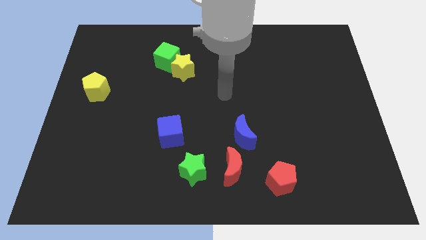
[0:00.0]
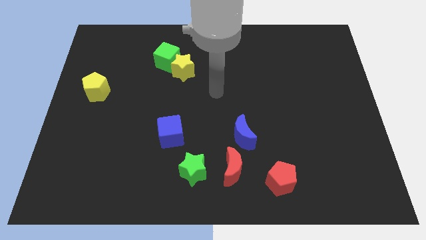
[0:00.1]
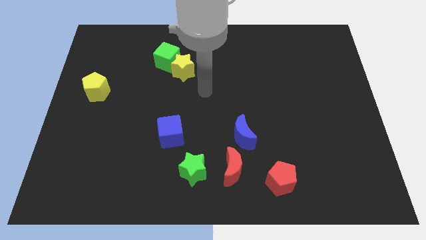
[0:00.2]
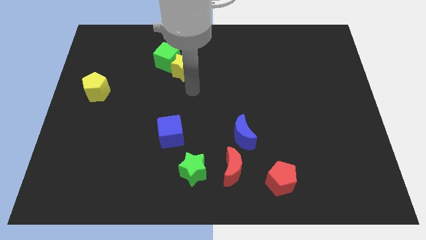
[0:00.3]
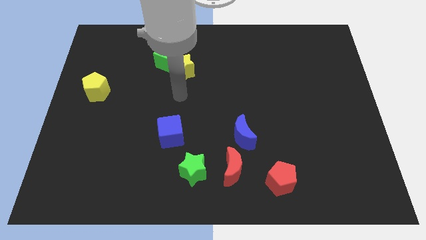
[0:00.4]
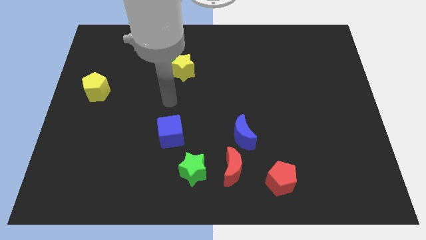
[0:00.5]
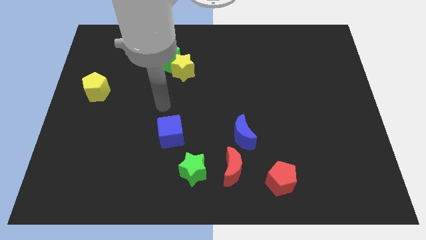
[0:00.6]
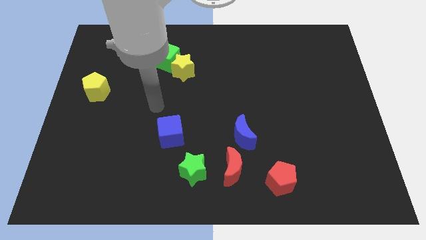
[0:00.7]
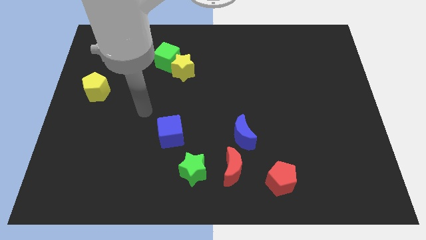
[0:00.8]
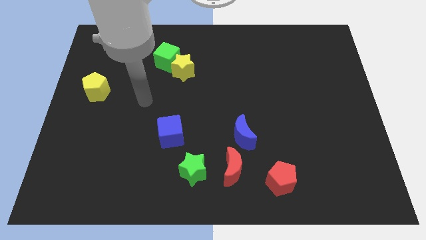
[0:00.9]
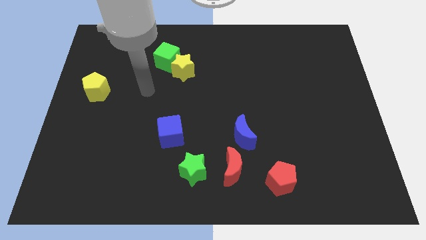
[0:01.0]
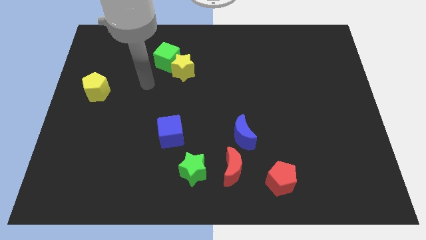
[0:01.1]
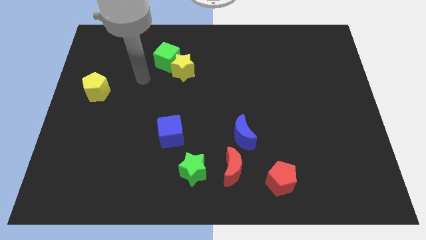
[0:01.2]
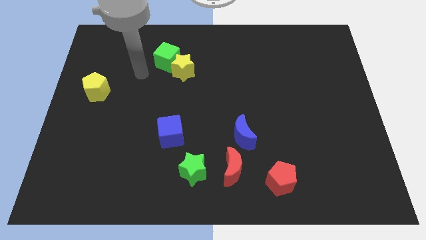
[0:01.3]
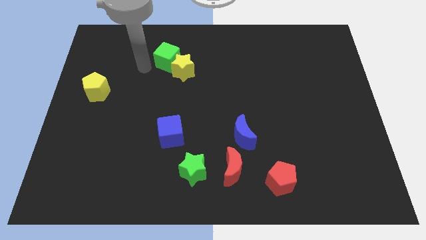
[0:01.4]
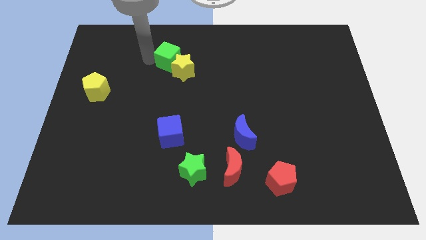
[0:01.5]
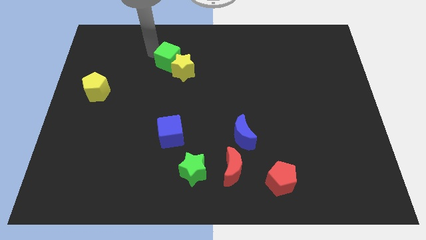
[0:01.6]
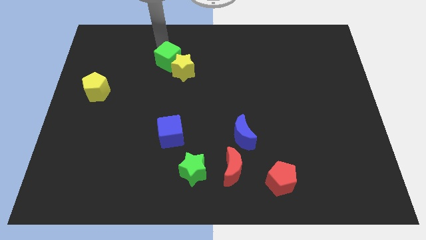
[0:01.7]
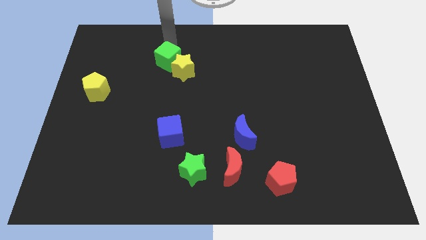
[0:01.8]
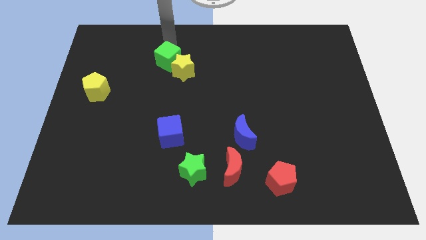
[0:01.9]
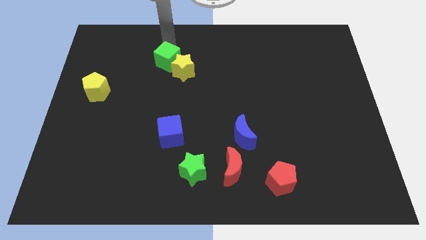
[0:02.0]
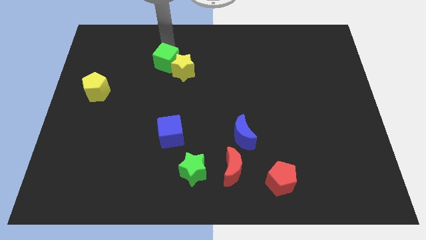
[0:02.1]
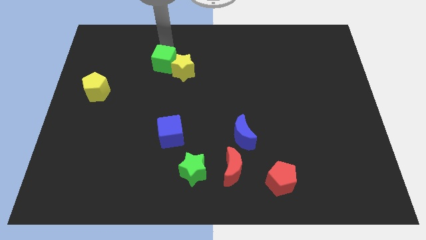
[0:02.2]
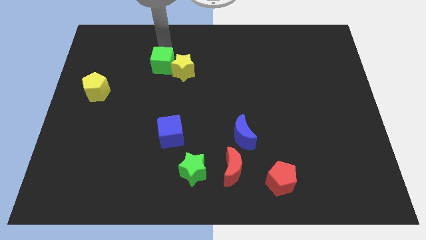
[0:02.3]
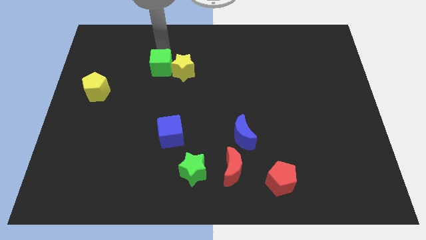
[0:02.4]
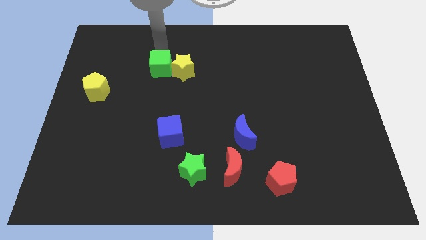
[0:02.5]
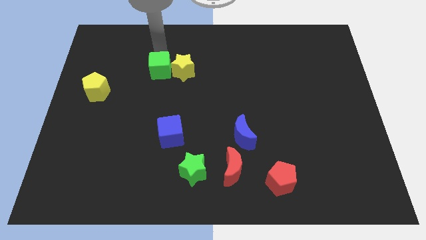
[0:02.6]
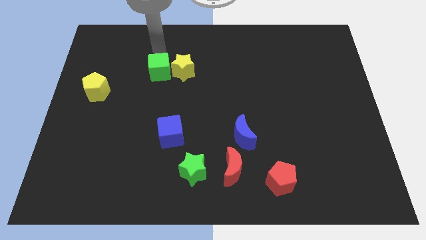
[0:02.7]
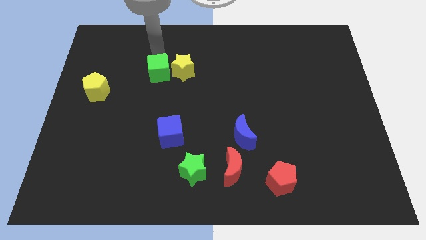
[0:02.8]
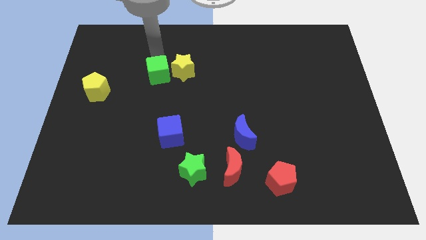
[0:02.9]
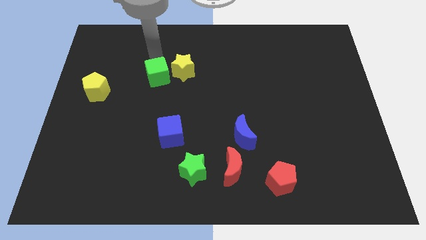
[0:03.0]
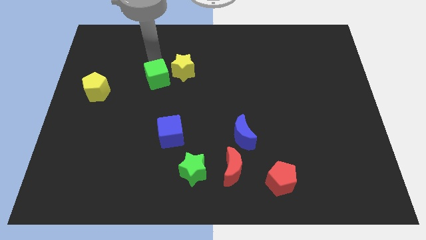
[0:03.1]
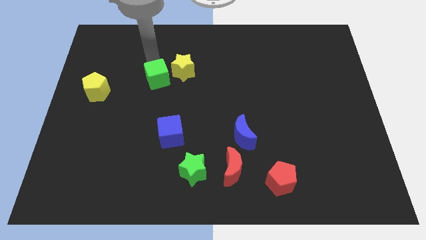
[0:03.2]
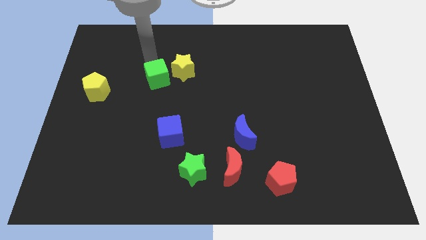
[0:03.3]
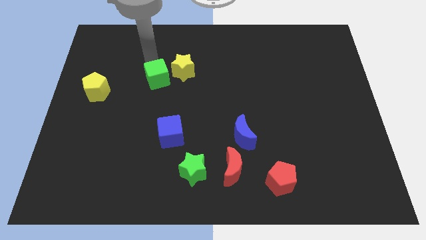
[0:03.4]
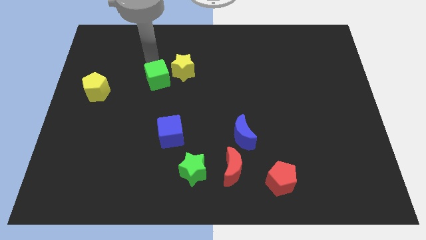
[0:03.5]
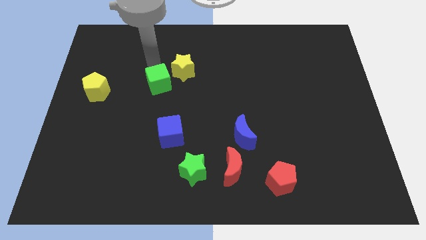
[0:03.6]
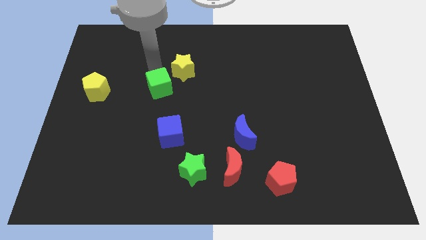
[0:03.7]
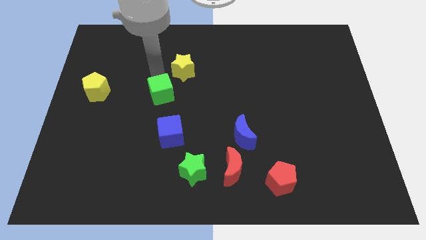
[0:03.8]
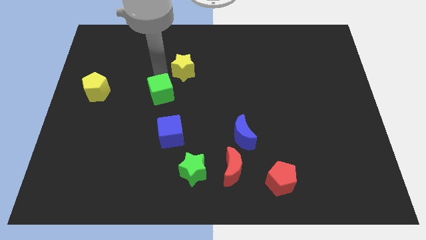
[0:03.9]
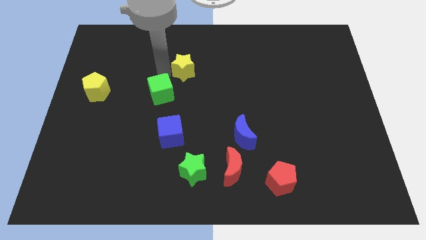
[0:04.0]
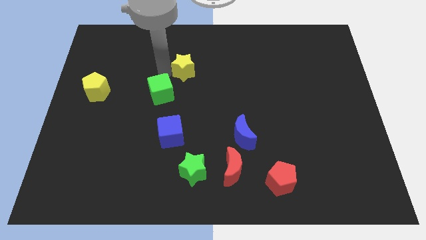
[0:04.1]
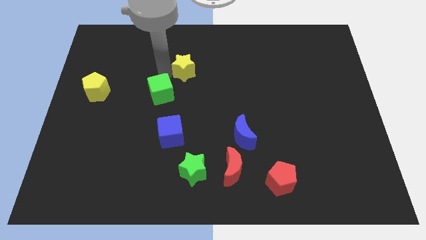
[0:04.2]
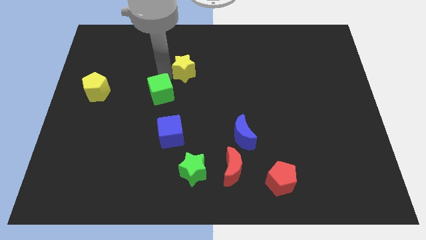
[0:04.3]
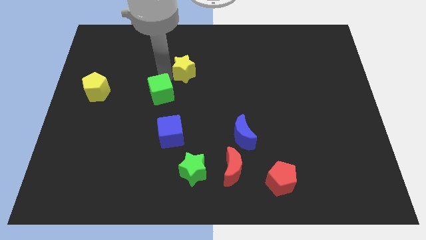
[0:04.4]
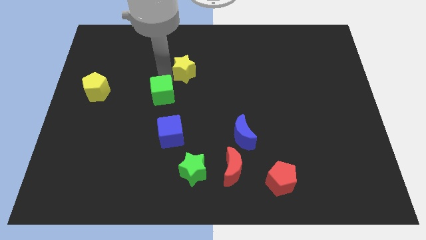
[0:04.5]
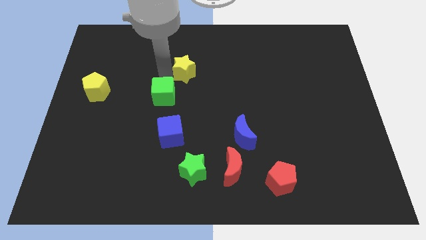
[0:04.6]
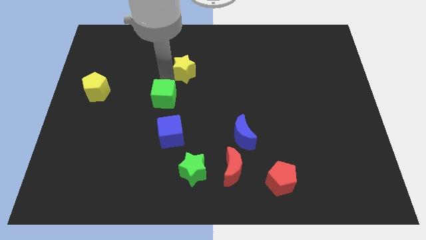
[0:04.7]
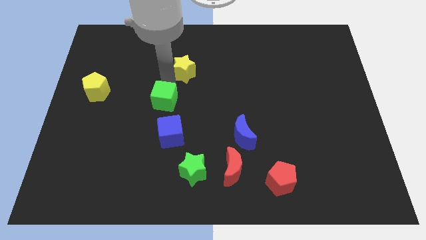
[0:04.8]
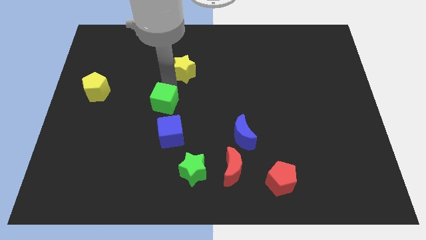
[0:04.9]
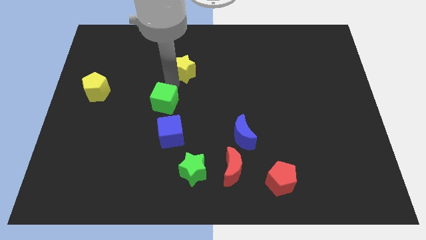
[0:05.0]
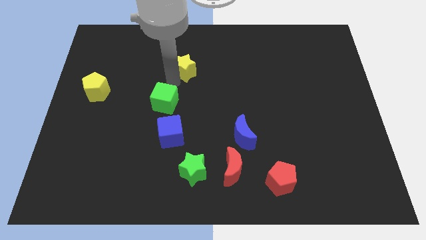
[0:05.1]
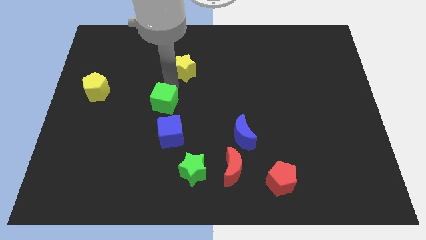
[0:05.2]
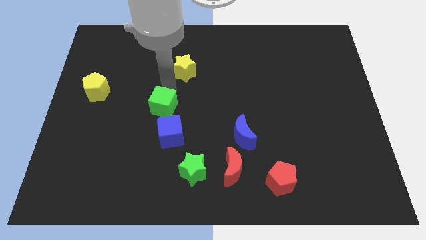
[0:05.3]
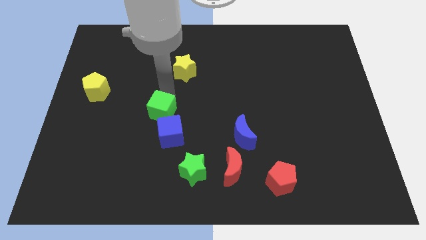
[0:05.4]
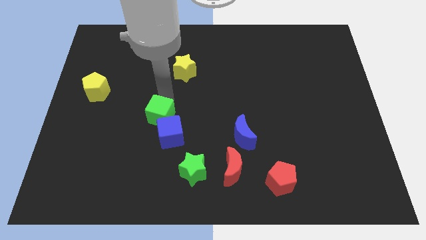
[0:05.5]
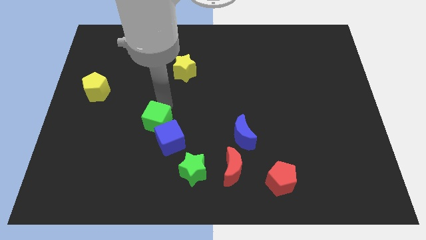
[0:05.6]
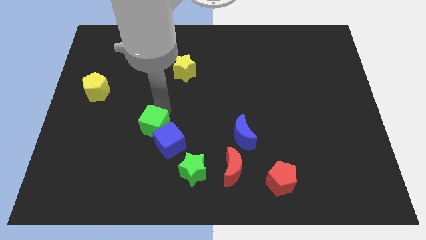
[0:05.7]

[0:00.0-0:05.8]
push the green cube downwards

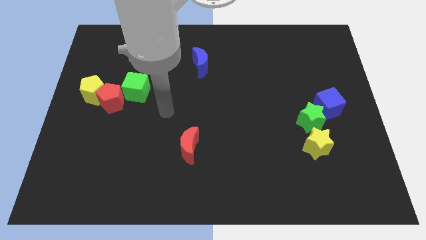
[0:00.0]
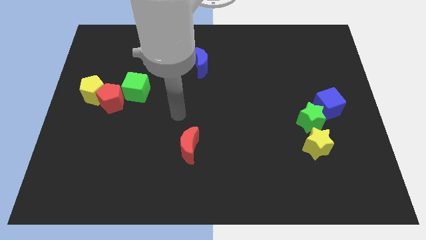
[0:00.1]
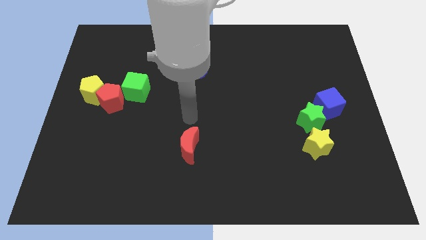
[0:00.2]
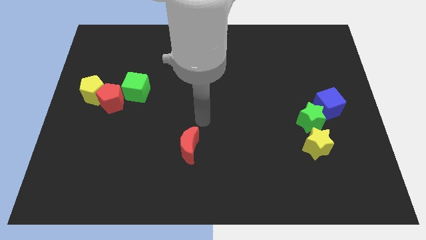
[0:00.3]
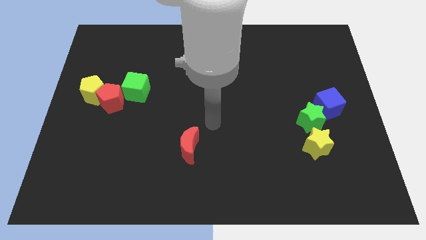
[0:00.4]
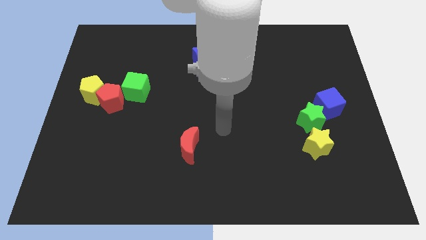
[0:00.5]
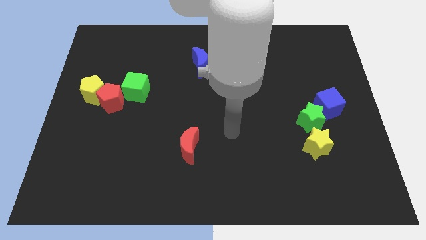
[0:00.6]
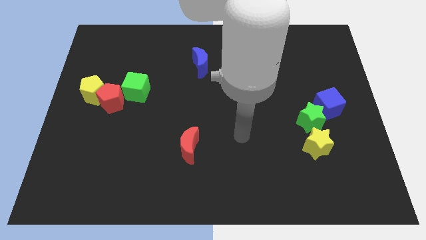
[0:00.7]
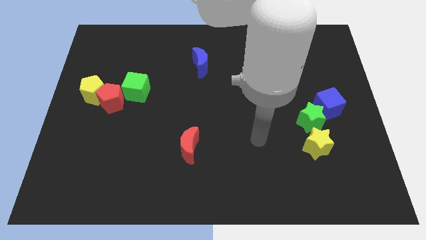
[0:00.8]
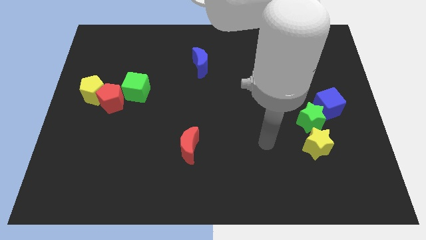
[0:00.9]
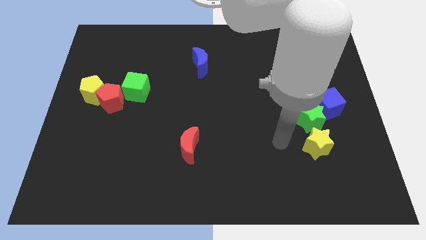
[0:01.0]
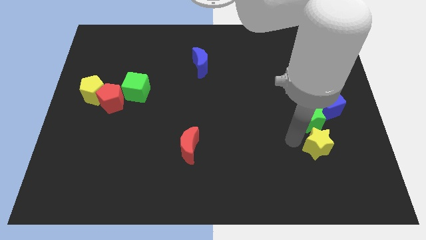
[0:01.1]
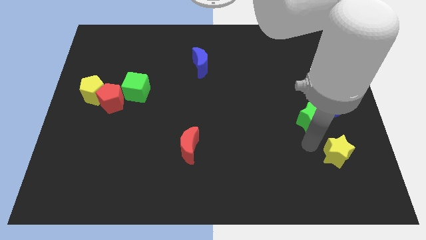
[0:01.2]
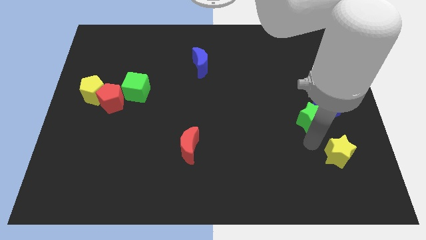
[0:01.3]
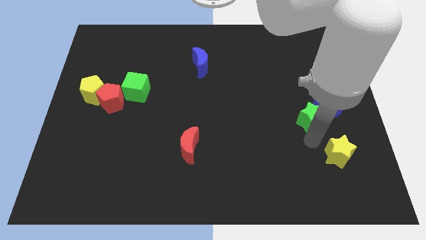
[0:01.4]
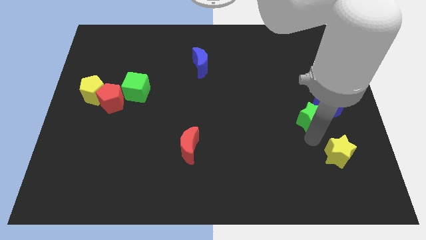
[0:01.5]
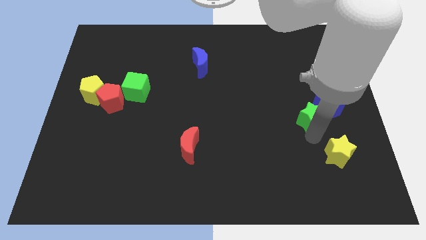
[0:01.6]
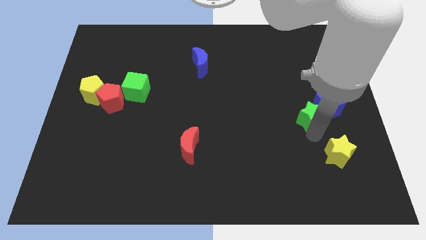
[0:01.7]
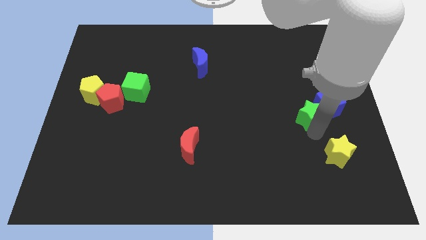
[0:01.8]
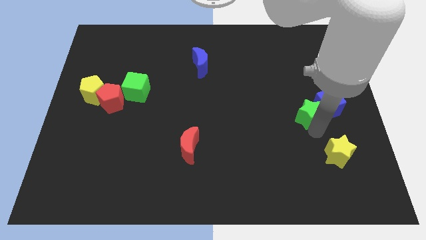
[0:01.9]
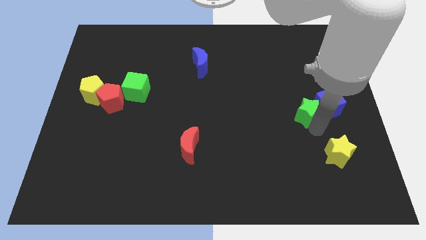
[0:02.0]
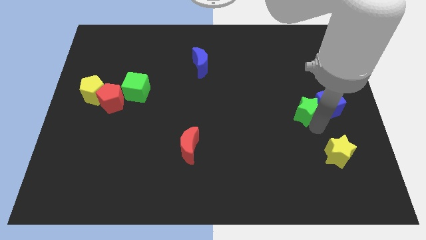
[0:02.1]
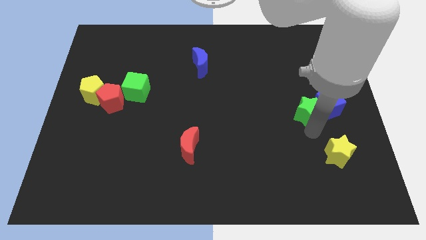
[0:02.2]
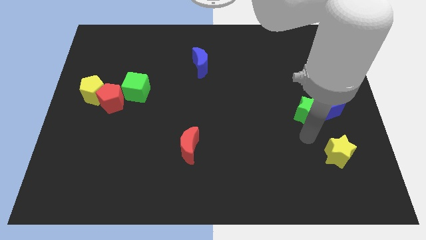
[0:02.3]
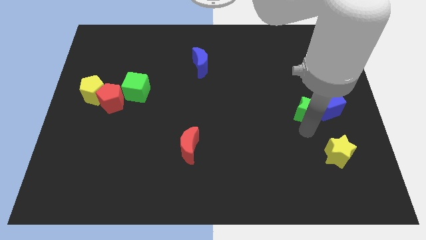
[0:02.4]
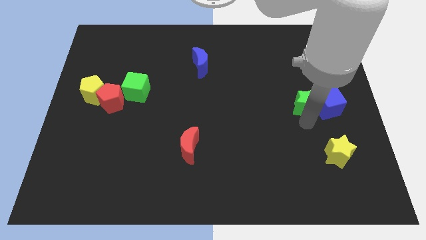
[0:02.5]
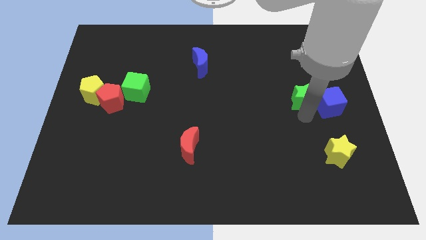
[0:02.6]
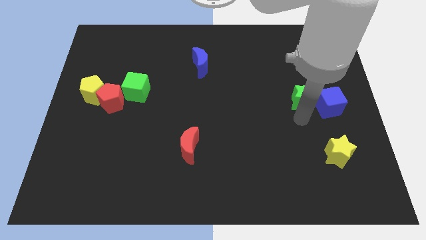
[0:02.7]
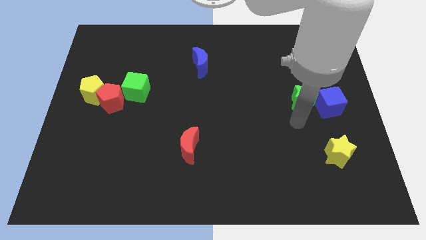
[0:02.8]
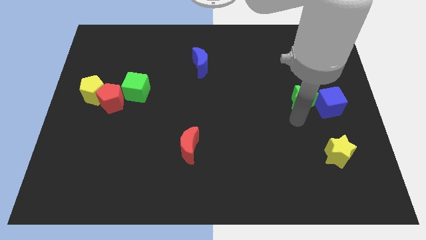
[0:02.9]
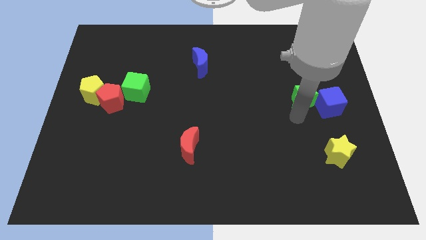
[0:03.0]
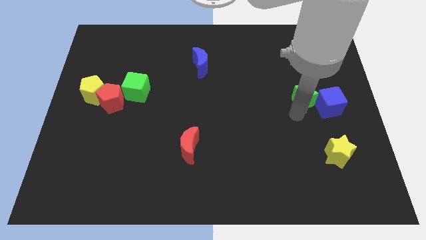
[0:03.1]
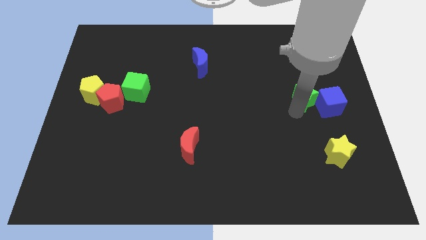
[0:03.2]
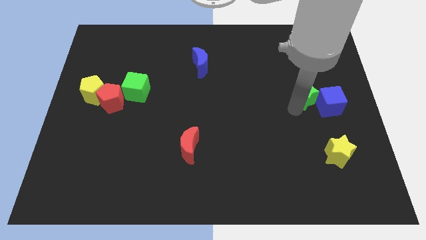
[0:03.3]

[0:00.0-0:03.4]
move the green star slightly up
